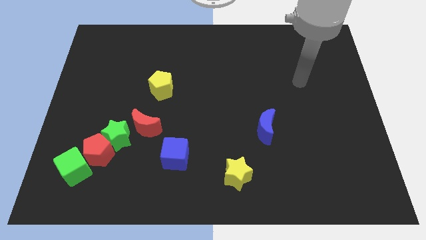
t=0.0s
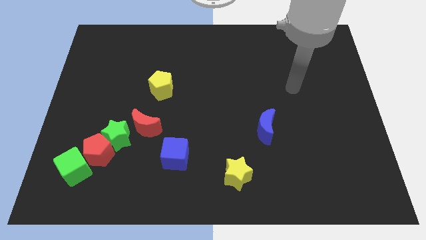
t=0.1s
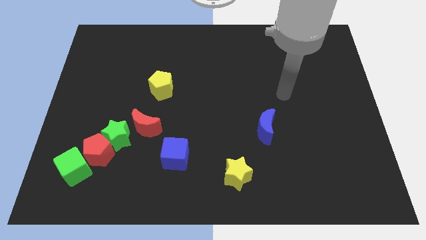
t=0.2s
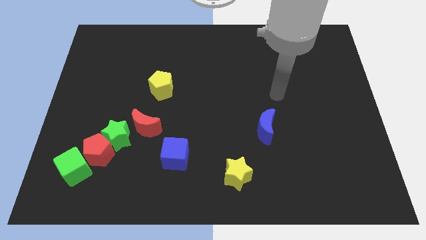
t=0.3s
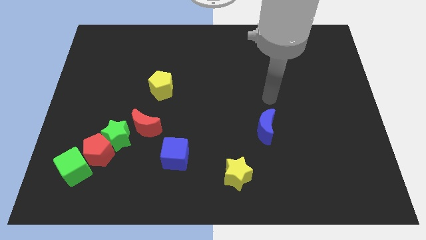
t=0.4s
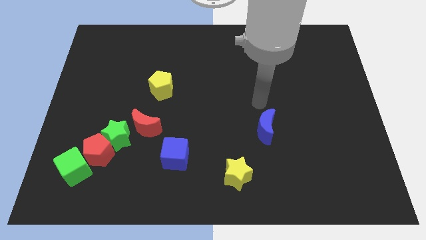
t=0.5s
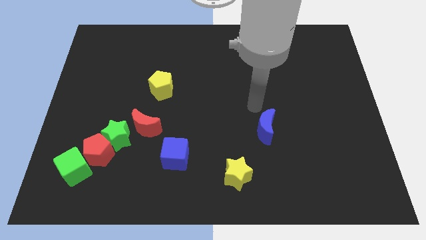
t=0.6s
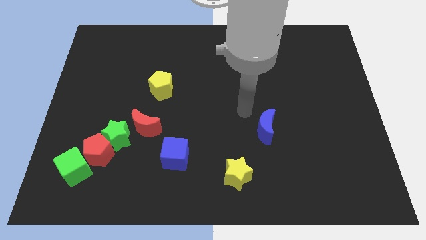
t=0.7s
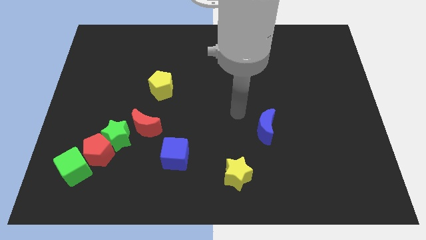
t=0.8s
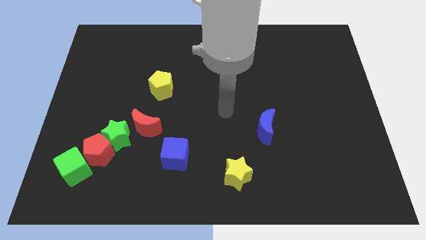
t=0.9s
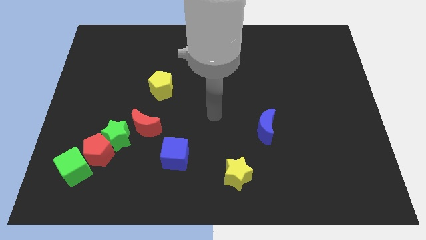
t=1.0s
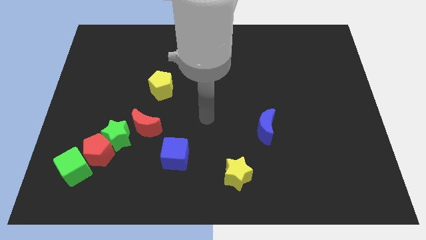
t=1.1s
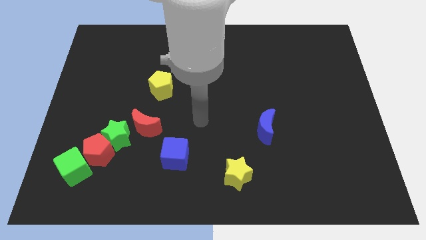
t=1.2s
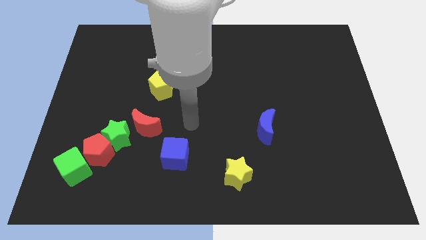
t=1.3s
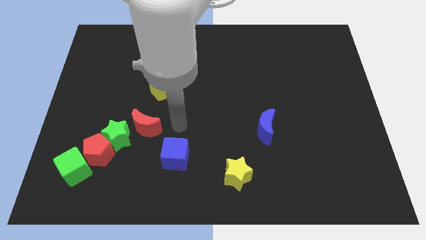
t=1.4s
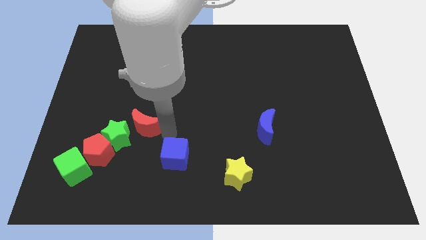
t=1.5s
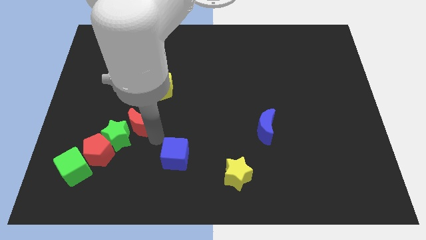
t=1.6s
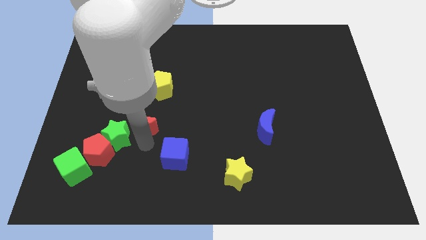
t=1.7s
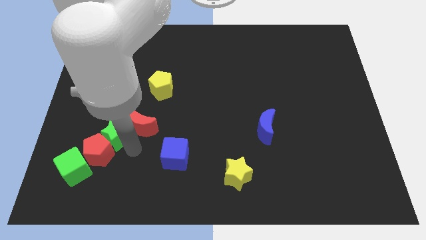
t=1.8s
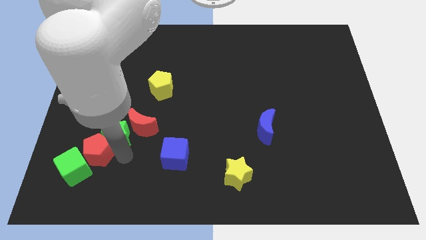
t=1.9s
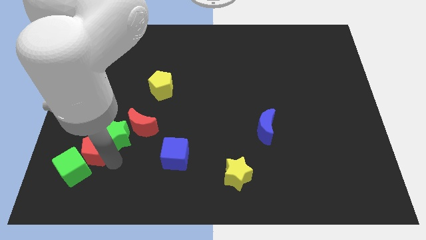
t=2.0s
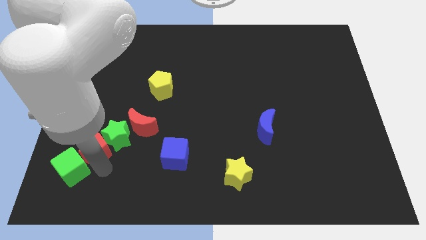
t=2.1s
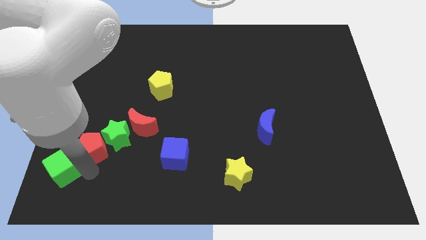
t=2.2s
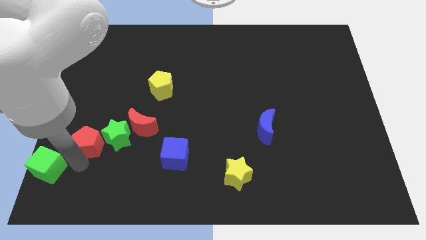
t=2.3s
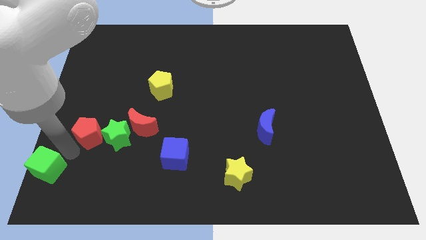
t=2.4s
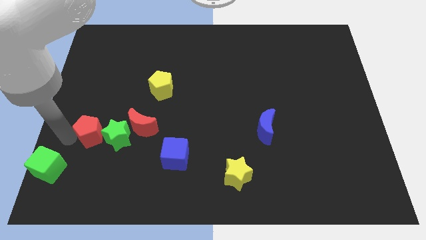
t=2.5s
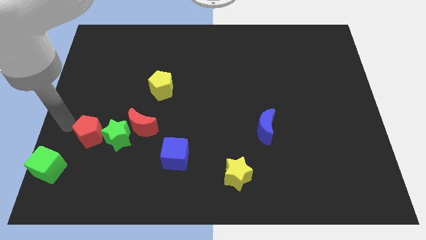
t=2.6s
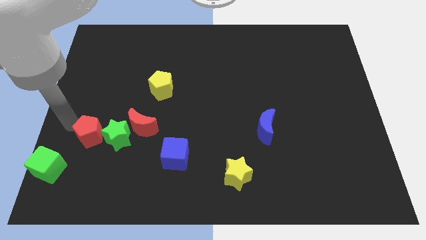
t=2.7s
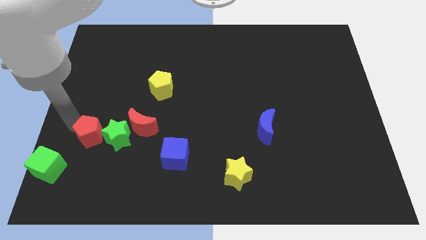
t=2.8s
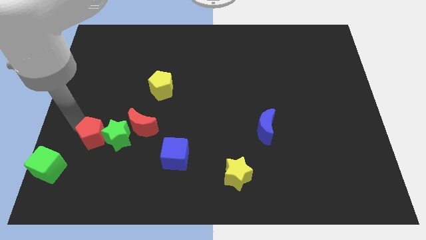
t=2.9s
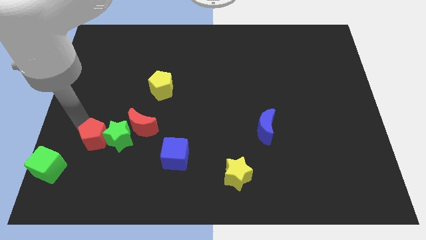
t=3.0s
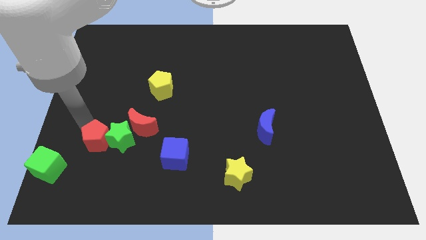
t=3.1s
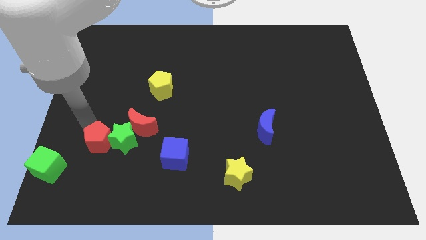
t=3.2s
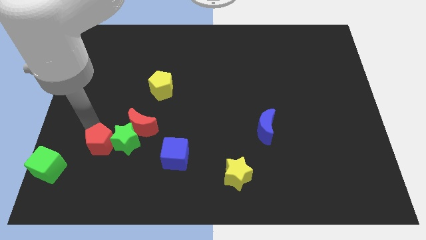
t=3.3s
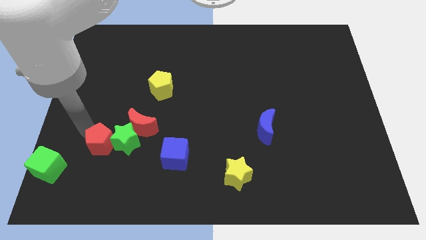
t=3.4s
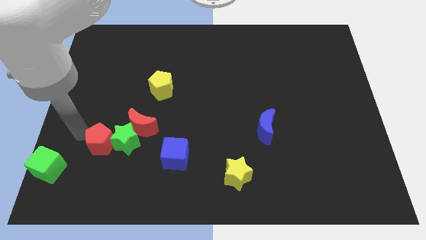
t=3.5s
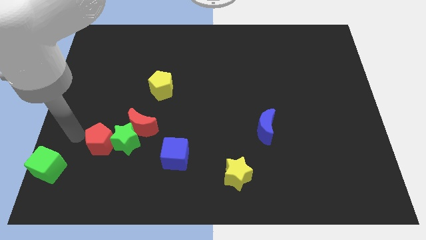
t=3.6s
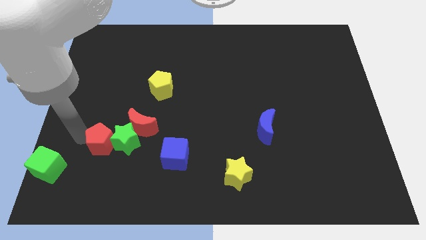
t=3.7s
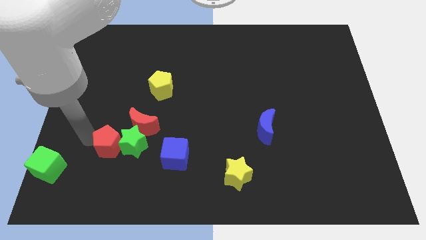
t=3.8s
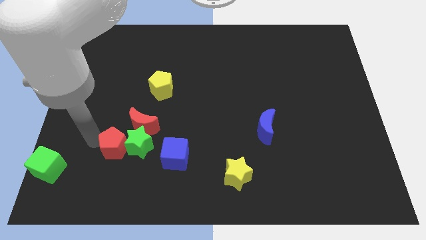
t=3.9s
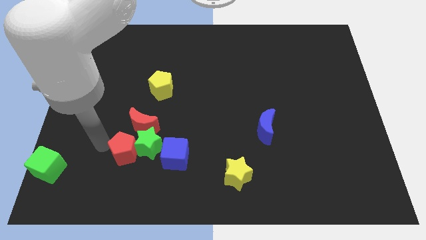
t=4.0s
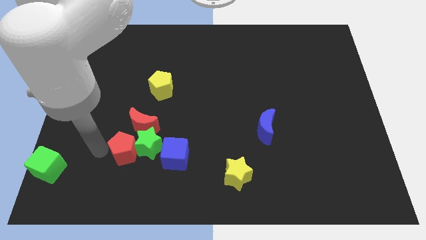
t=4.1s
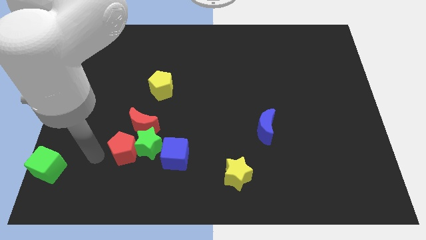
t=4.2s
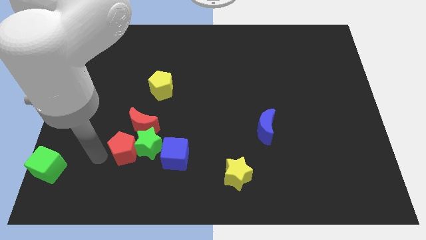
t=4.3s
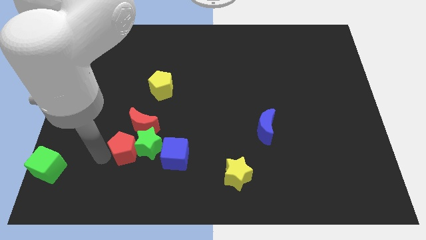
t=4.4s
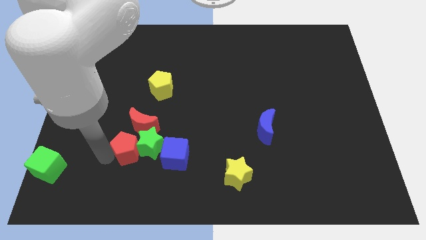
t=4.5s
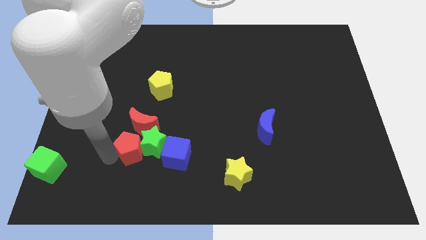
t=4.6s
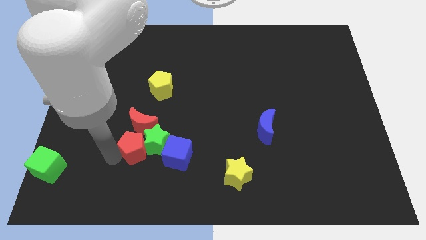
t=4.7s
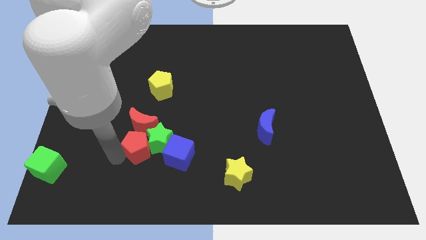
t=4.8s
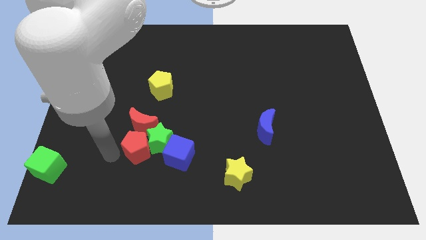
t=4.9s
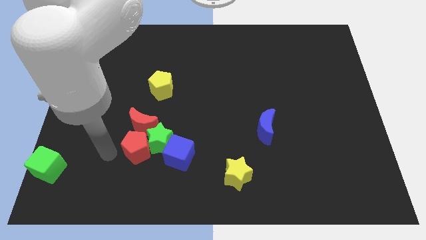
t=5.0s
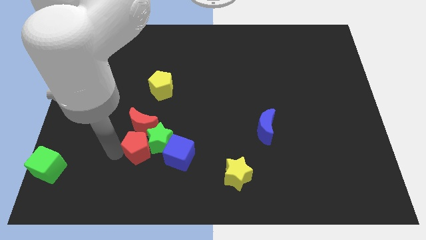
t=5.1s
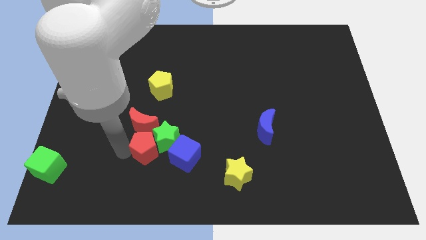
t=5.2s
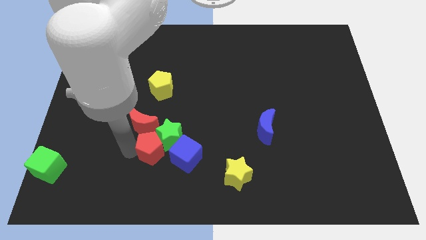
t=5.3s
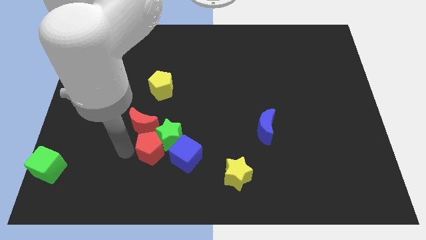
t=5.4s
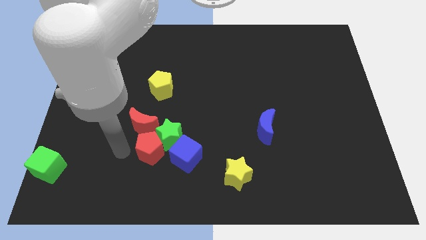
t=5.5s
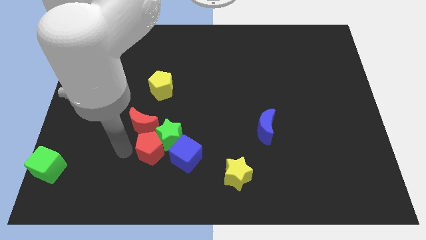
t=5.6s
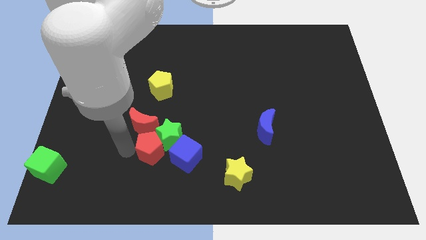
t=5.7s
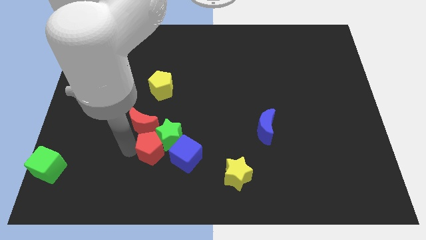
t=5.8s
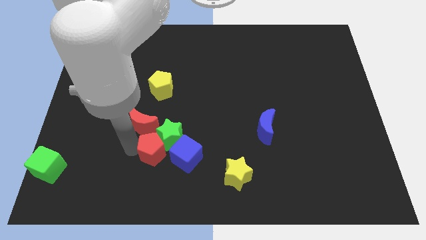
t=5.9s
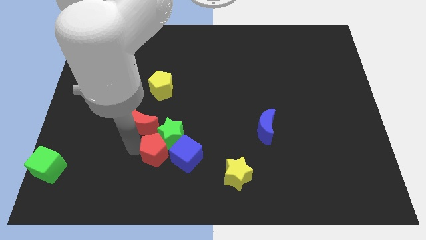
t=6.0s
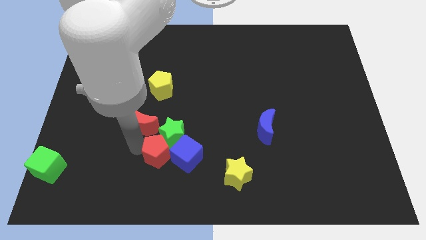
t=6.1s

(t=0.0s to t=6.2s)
pull the red pentagon apart from the green star and green cube

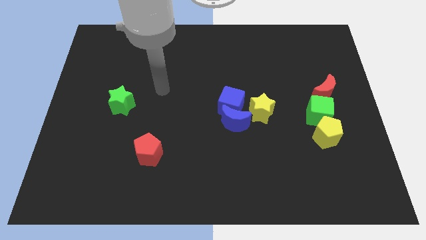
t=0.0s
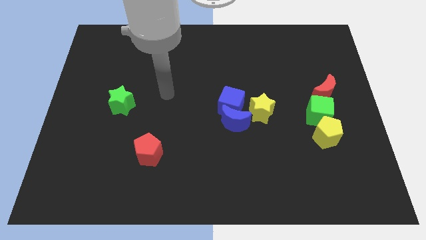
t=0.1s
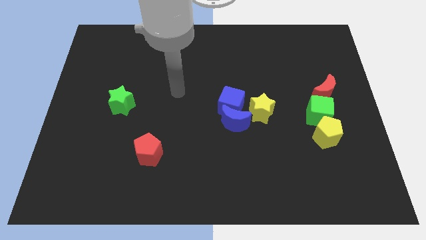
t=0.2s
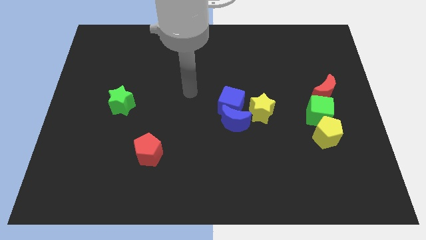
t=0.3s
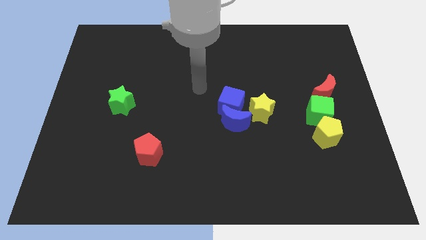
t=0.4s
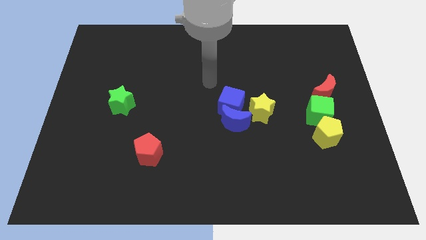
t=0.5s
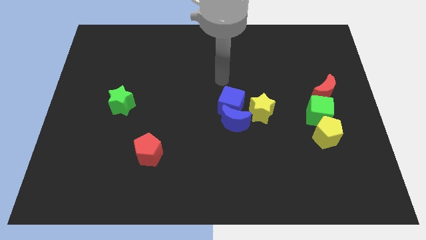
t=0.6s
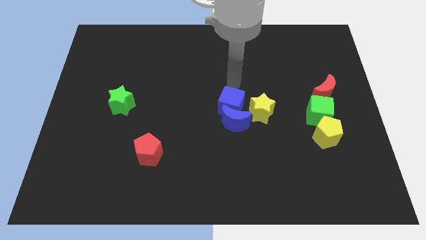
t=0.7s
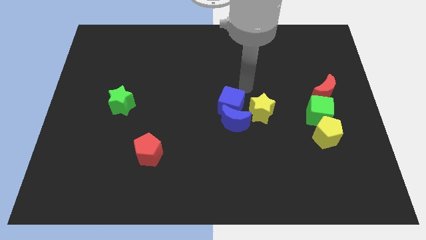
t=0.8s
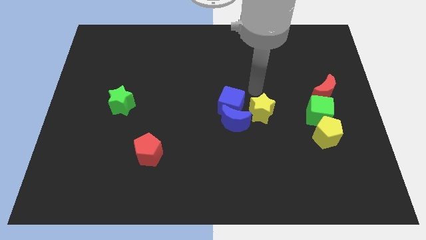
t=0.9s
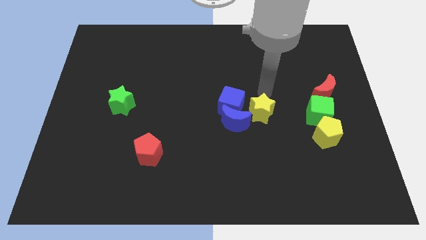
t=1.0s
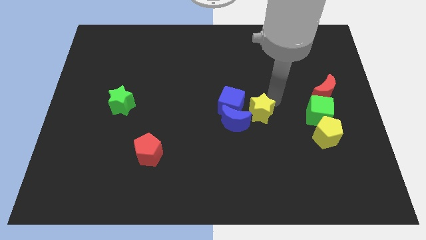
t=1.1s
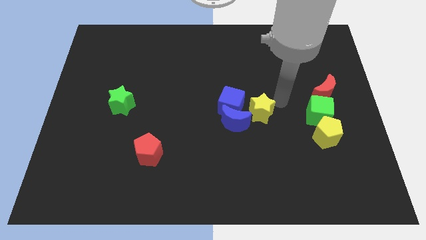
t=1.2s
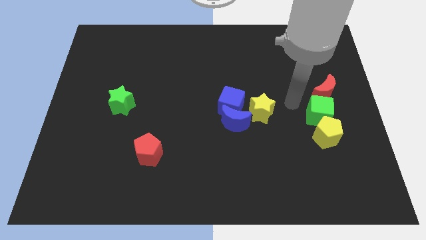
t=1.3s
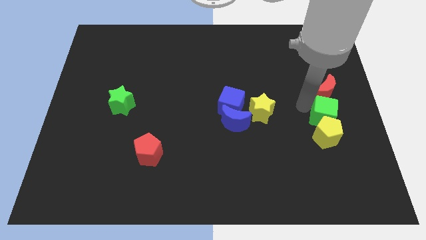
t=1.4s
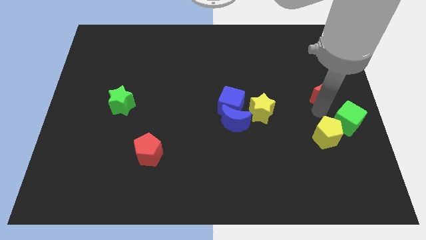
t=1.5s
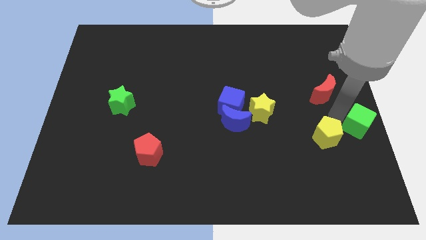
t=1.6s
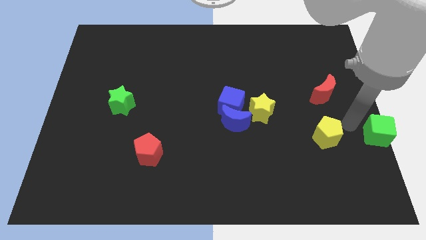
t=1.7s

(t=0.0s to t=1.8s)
move the yellow pentagon away from the green cube

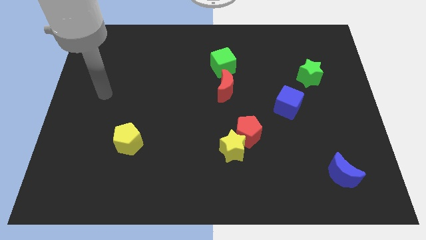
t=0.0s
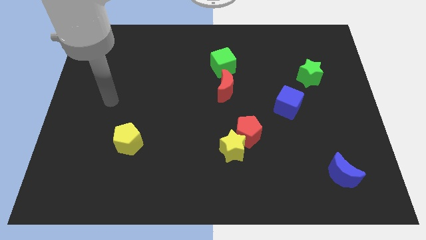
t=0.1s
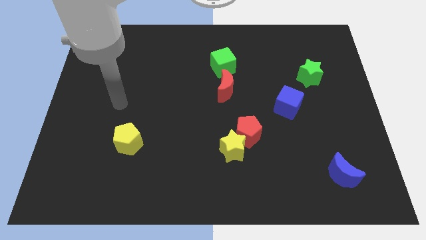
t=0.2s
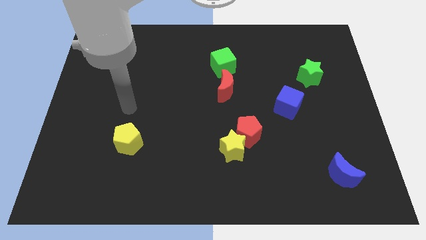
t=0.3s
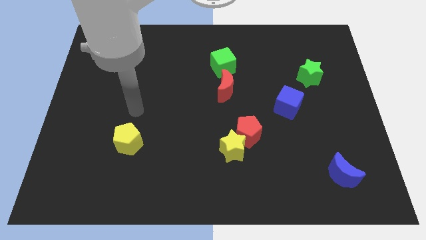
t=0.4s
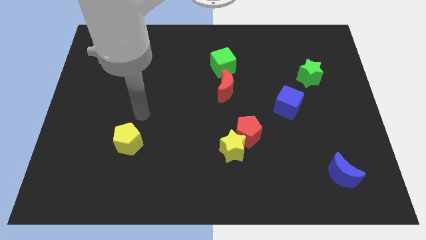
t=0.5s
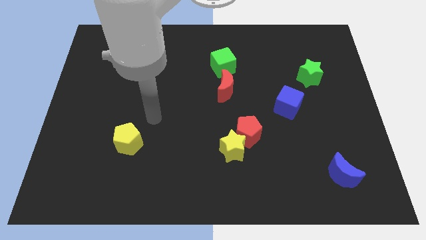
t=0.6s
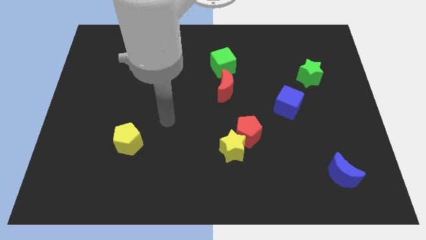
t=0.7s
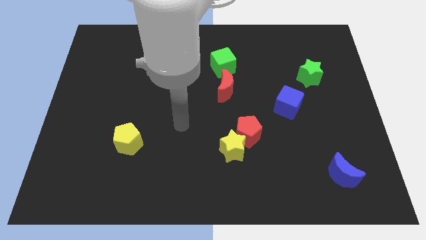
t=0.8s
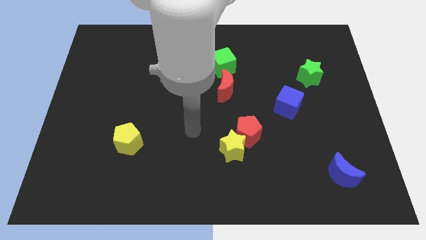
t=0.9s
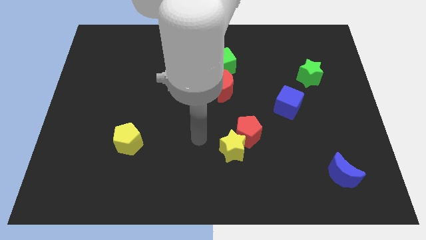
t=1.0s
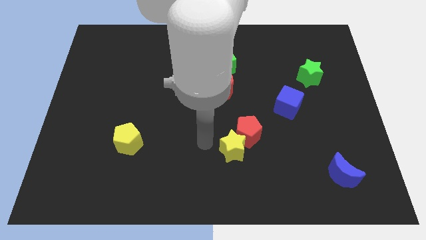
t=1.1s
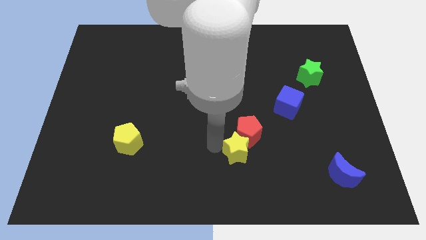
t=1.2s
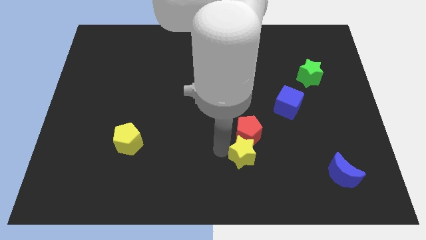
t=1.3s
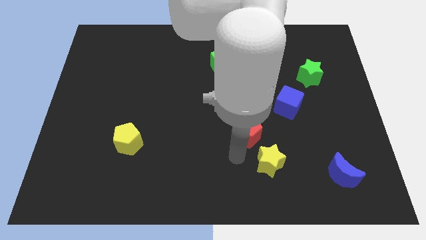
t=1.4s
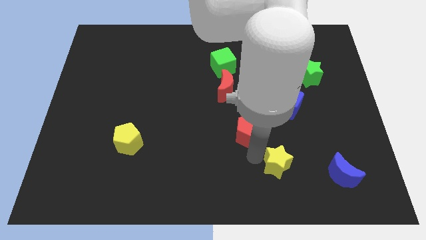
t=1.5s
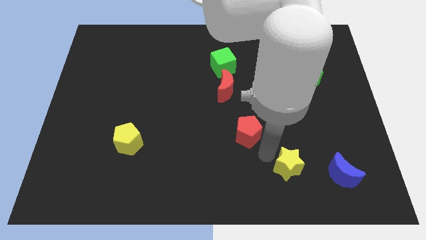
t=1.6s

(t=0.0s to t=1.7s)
separate the red pentagon from the yellow star
